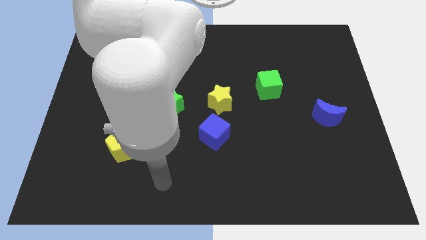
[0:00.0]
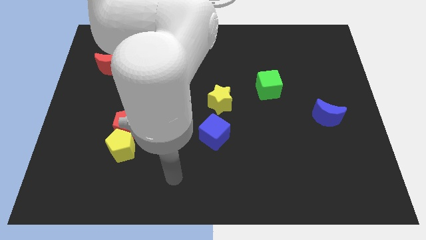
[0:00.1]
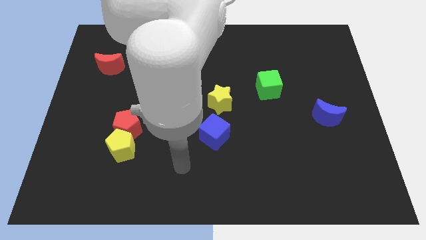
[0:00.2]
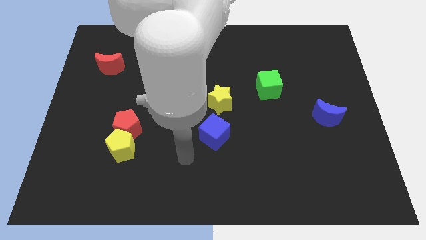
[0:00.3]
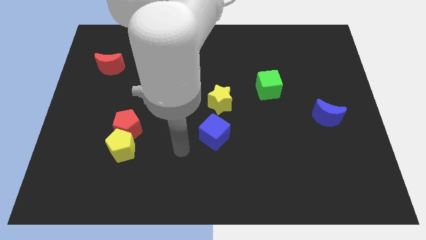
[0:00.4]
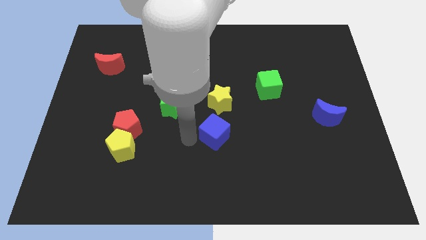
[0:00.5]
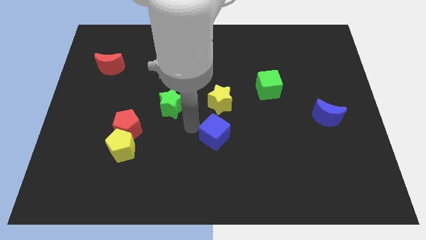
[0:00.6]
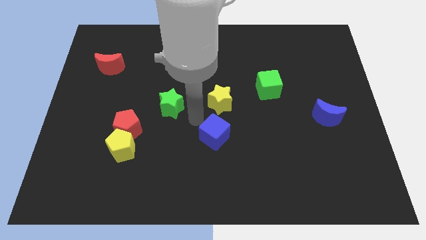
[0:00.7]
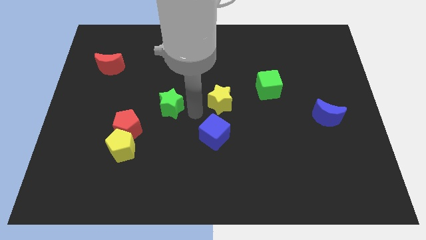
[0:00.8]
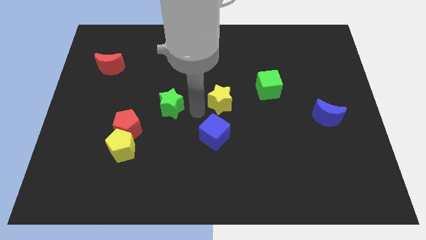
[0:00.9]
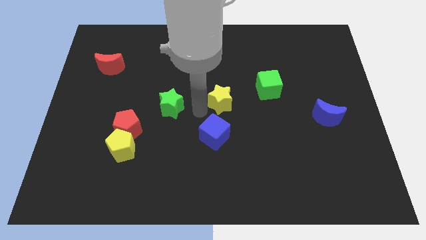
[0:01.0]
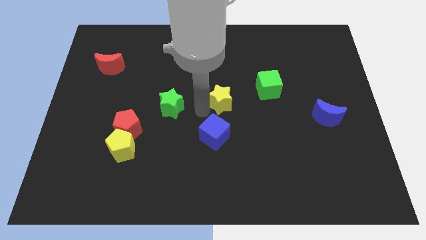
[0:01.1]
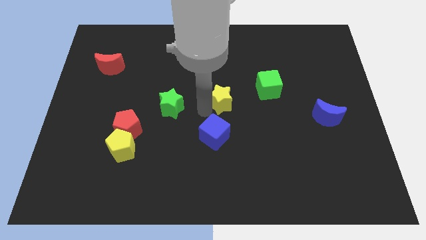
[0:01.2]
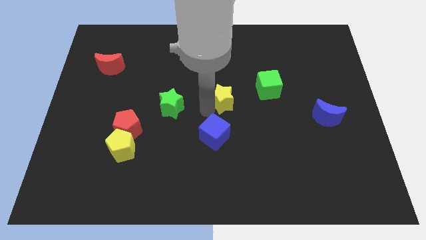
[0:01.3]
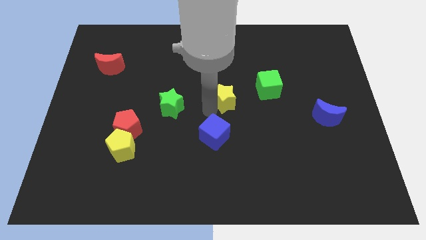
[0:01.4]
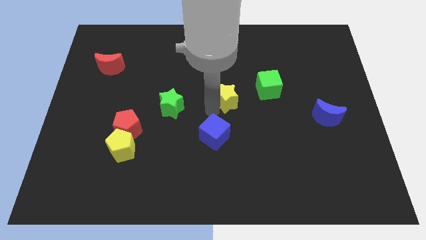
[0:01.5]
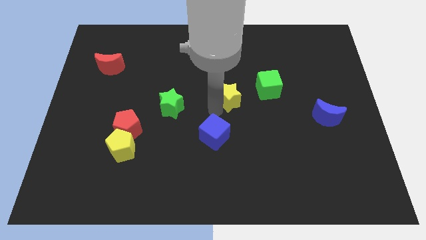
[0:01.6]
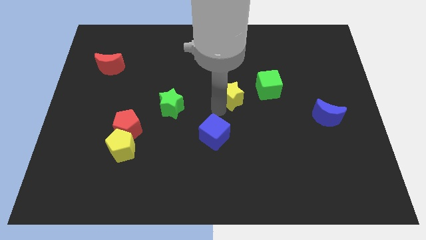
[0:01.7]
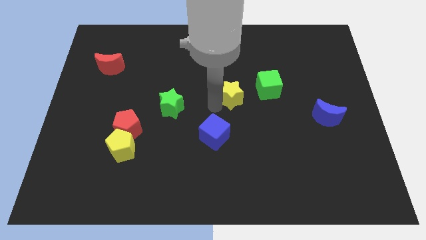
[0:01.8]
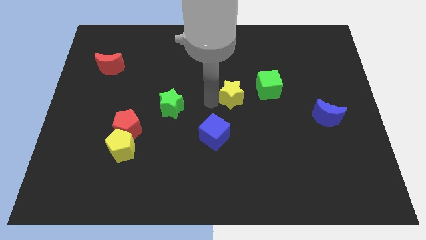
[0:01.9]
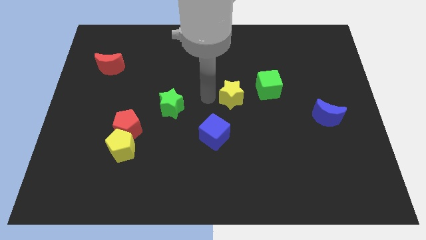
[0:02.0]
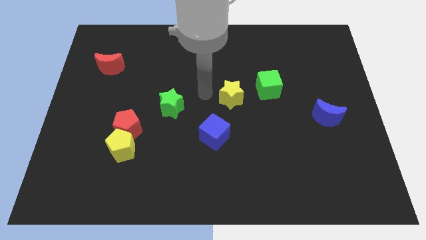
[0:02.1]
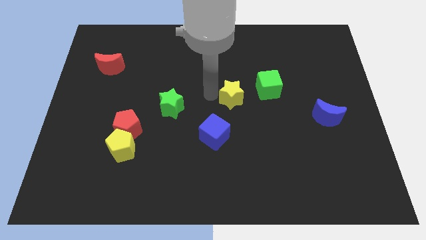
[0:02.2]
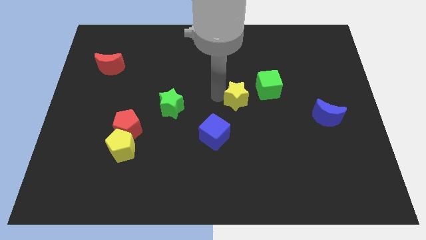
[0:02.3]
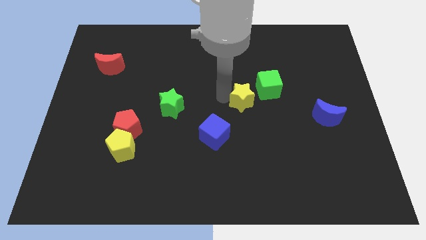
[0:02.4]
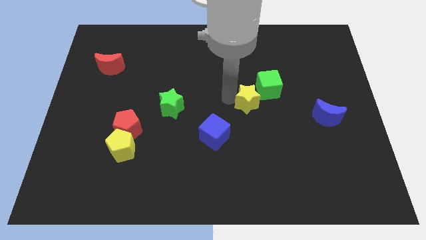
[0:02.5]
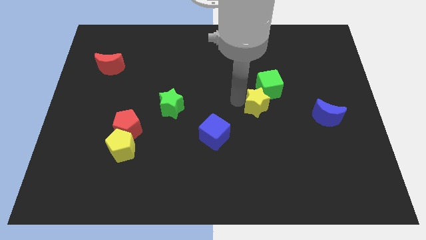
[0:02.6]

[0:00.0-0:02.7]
slightly push the yellow star to the right

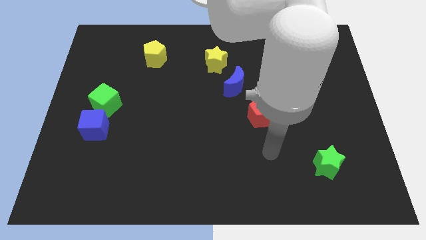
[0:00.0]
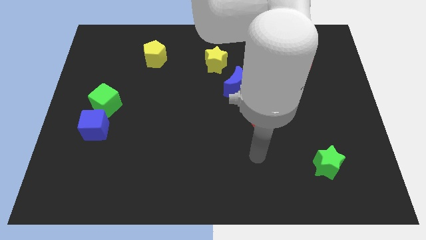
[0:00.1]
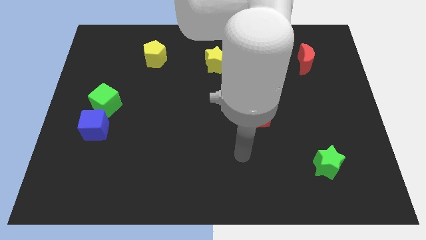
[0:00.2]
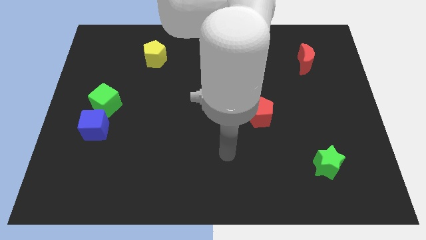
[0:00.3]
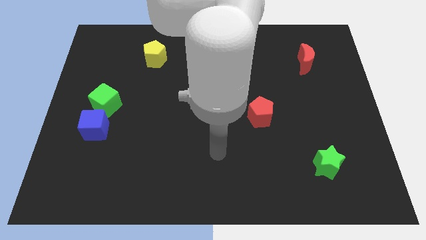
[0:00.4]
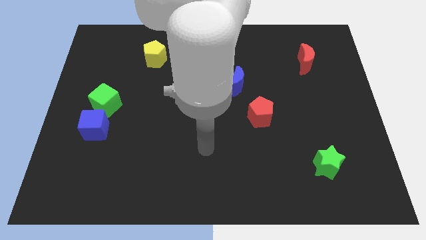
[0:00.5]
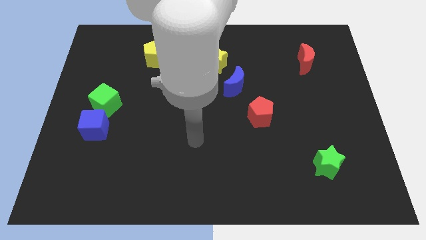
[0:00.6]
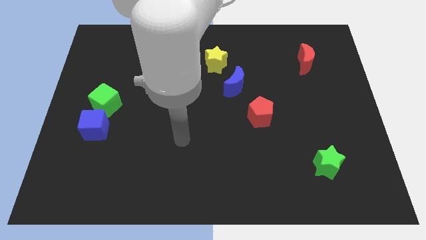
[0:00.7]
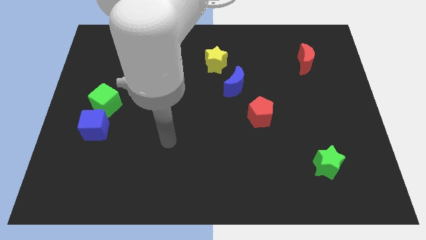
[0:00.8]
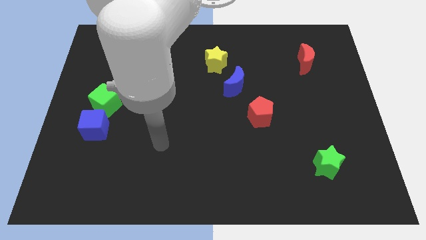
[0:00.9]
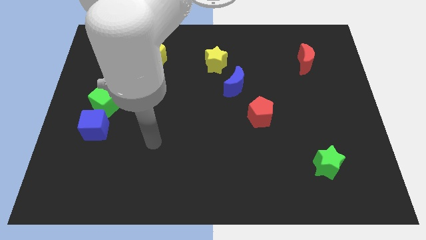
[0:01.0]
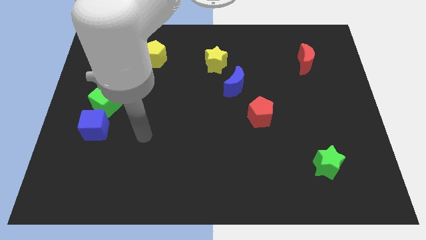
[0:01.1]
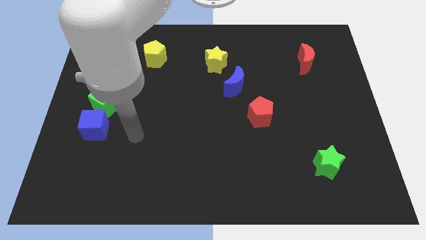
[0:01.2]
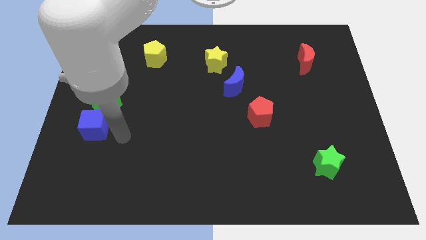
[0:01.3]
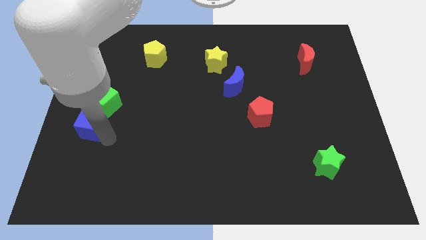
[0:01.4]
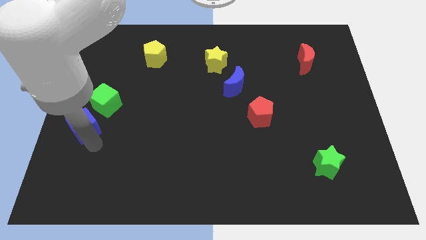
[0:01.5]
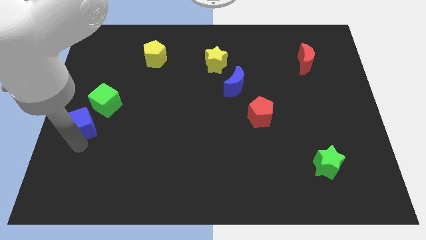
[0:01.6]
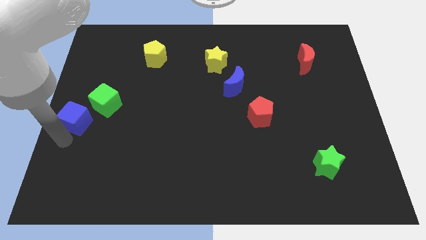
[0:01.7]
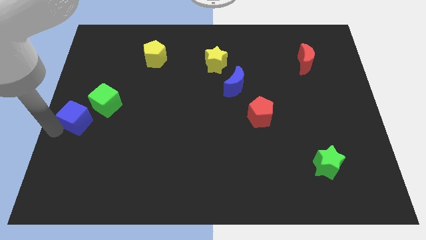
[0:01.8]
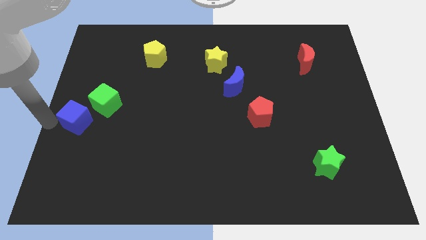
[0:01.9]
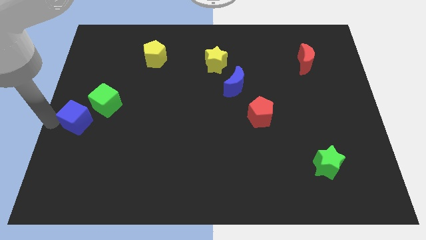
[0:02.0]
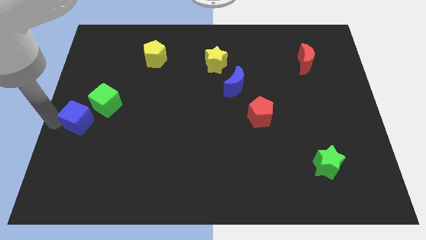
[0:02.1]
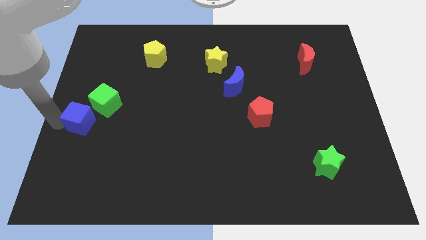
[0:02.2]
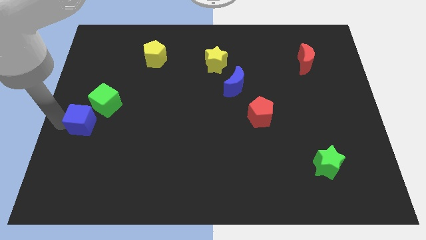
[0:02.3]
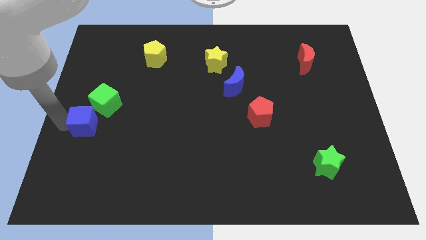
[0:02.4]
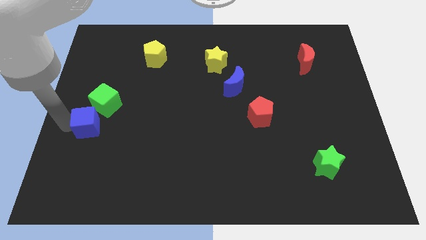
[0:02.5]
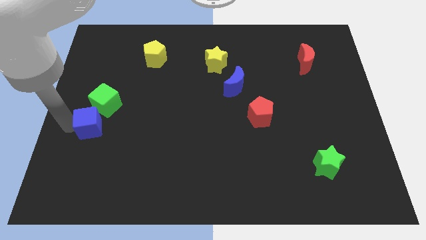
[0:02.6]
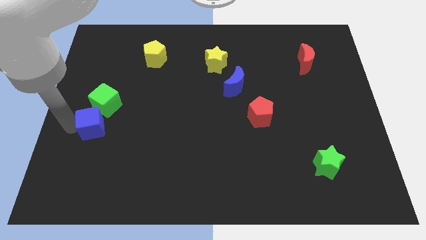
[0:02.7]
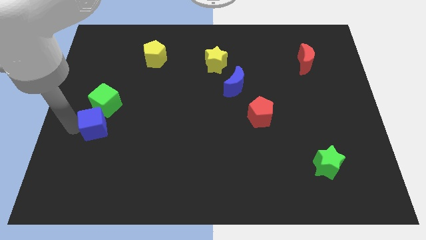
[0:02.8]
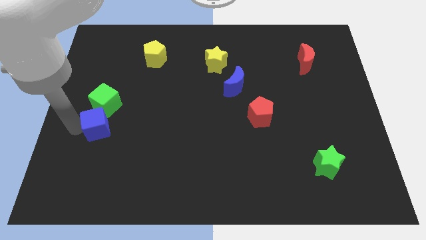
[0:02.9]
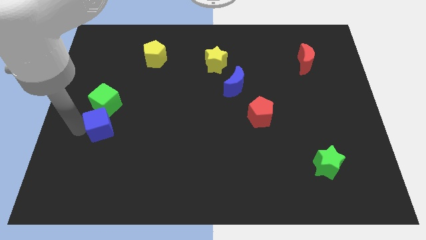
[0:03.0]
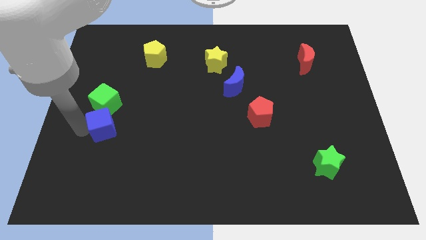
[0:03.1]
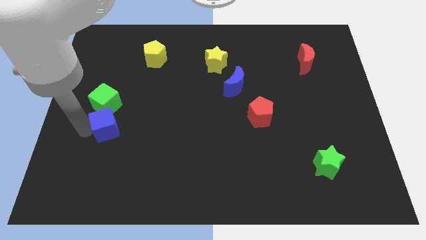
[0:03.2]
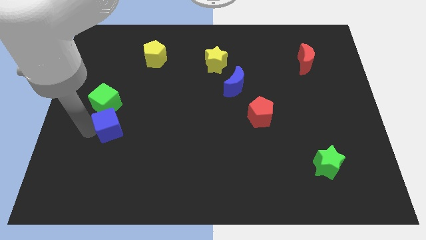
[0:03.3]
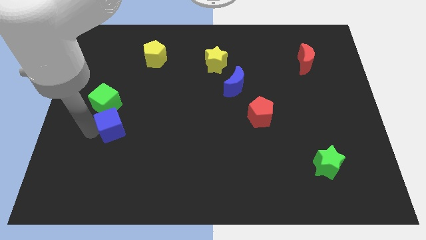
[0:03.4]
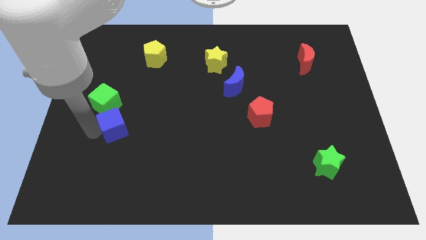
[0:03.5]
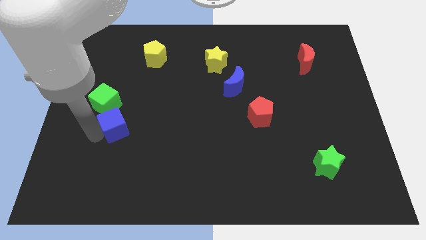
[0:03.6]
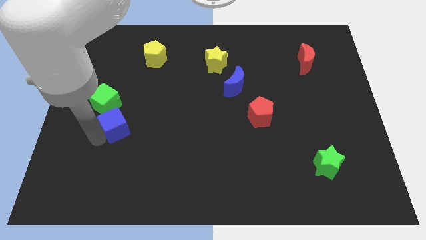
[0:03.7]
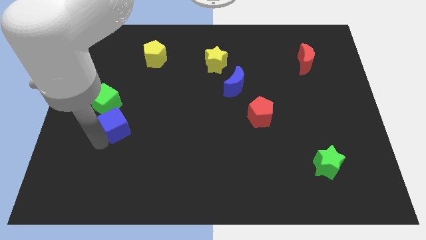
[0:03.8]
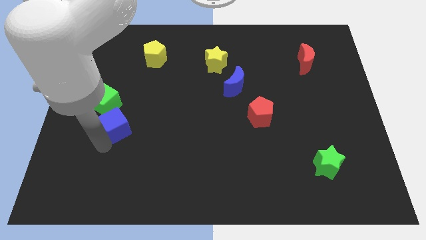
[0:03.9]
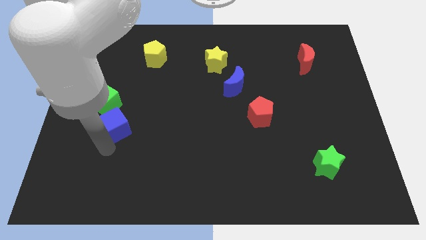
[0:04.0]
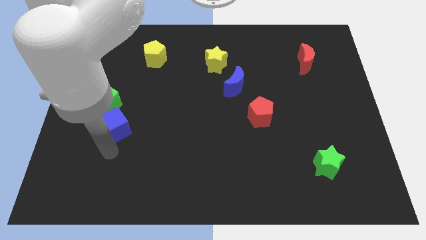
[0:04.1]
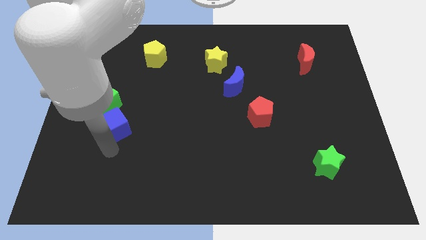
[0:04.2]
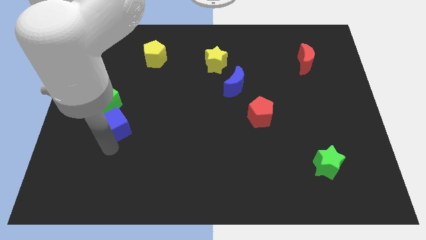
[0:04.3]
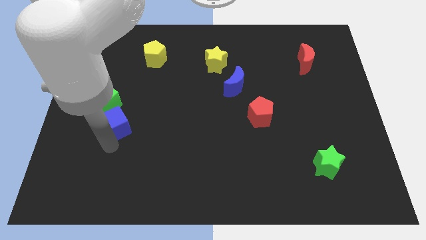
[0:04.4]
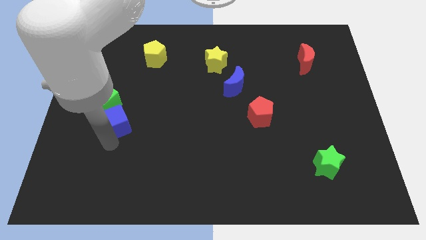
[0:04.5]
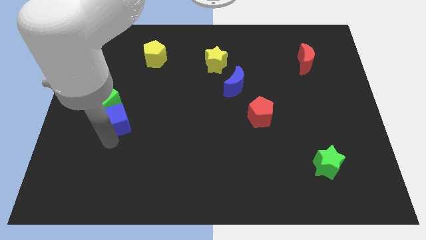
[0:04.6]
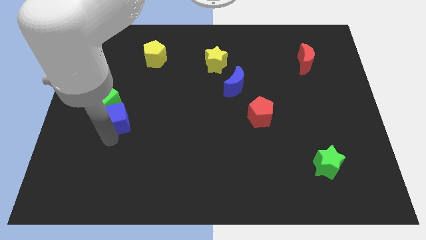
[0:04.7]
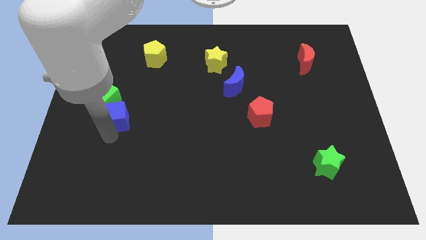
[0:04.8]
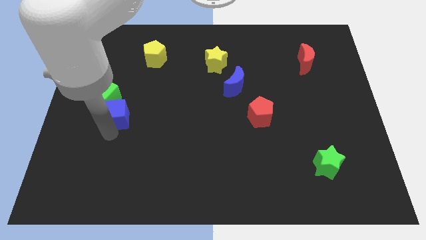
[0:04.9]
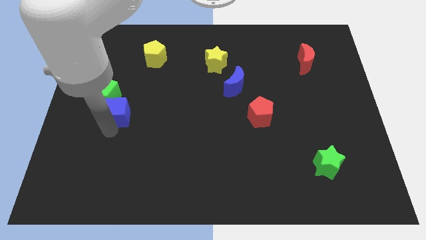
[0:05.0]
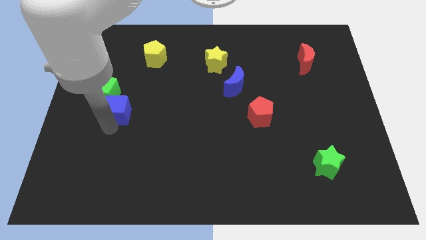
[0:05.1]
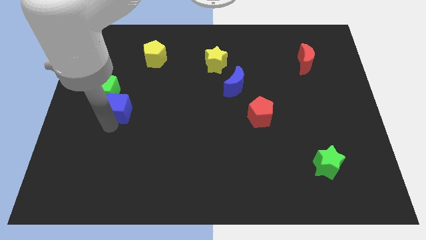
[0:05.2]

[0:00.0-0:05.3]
slide the blue cube upwards and then to the right a little

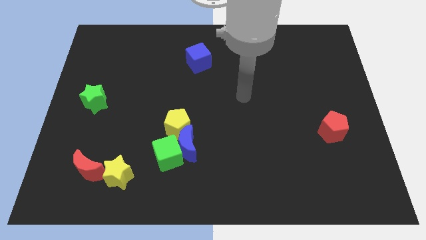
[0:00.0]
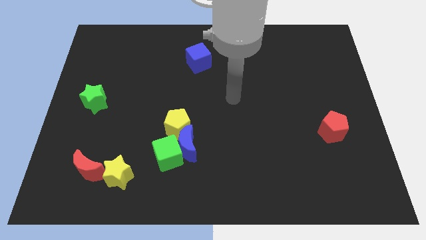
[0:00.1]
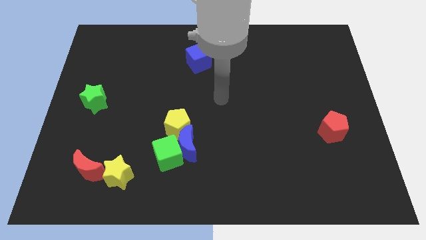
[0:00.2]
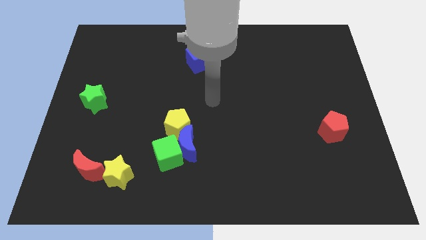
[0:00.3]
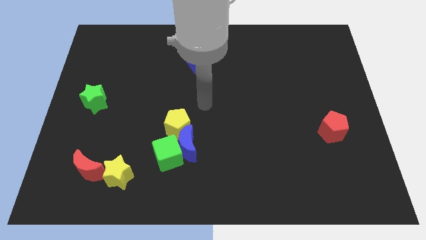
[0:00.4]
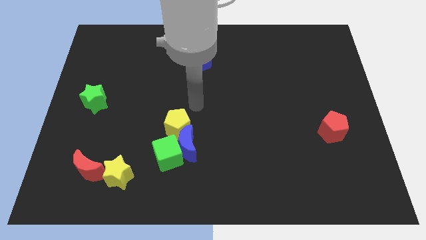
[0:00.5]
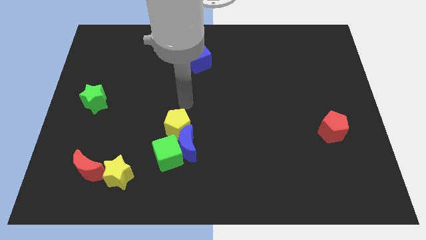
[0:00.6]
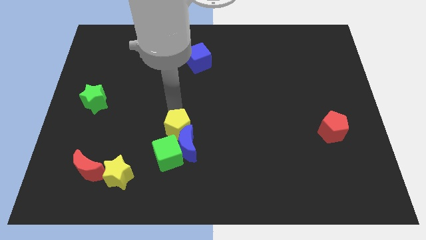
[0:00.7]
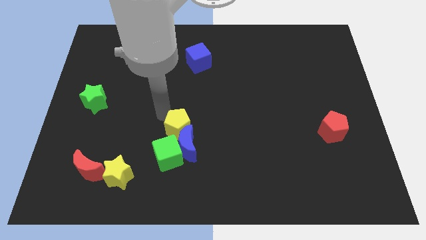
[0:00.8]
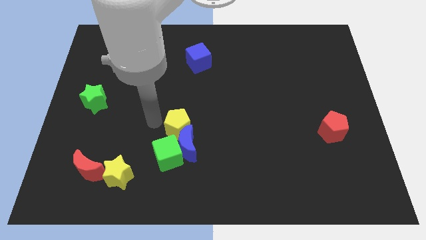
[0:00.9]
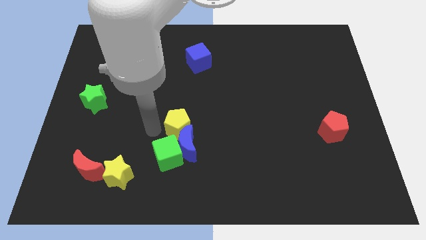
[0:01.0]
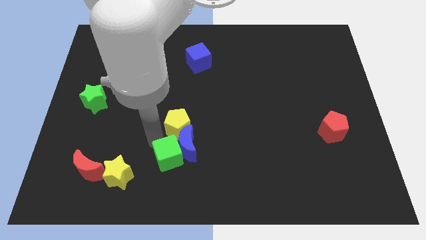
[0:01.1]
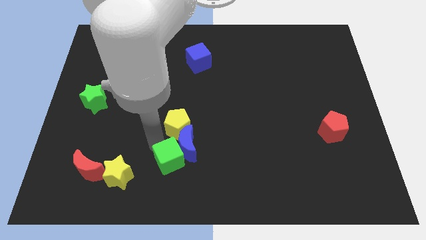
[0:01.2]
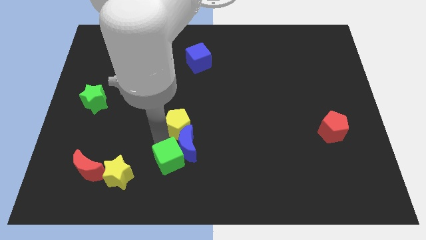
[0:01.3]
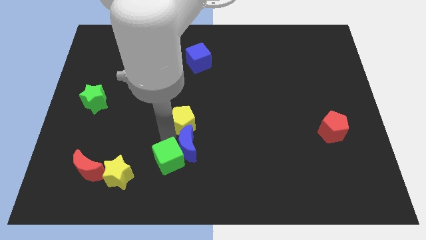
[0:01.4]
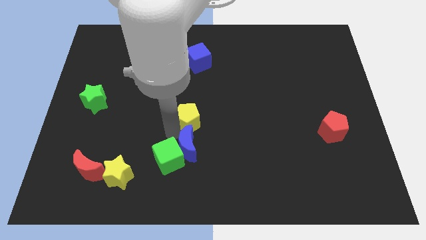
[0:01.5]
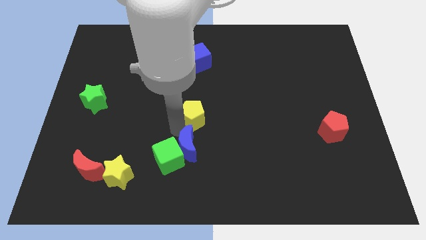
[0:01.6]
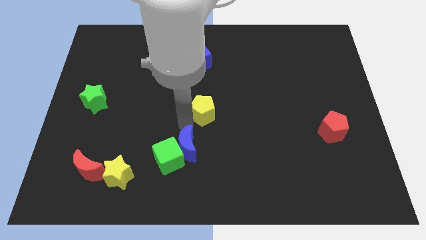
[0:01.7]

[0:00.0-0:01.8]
push the yellow pentagon a little diagonally upwards and to the right
